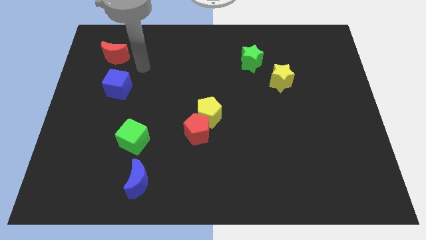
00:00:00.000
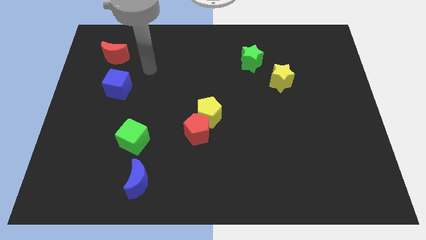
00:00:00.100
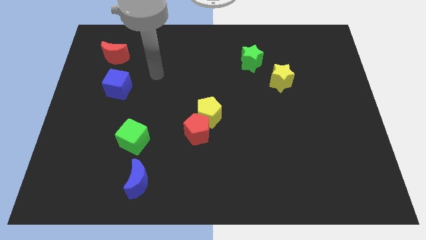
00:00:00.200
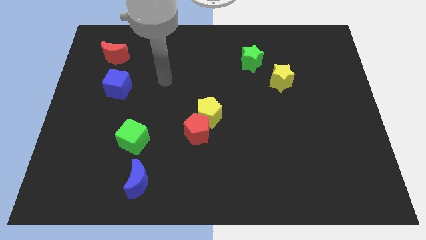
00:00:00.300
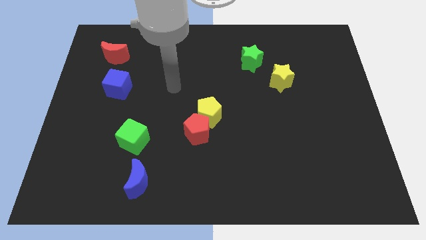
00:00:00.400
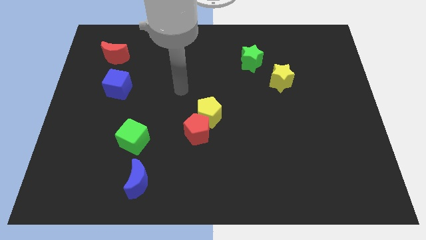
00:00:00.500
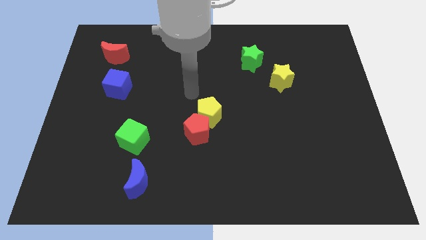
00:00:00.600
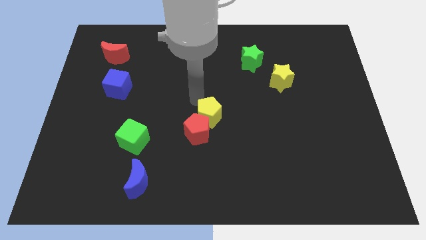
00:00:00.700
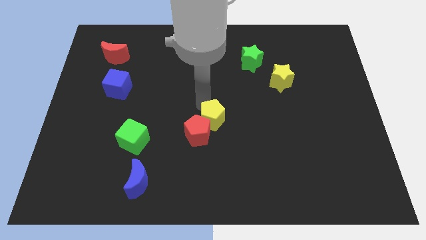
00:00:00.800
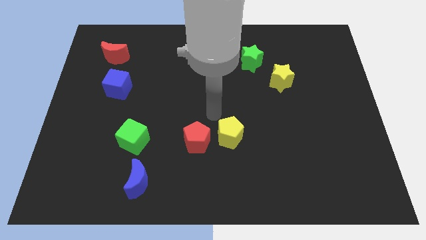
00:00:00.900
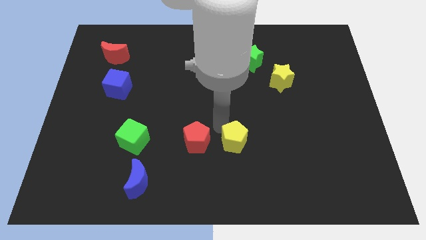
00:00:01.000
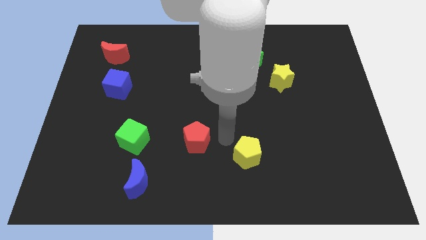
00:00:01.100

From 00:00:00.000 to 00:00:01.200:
pull the red pentagon apart from the yellow pentagon

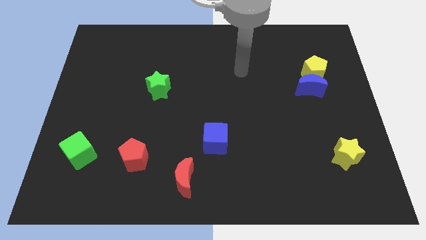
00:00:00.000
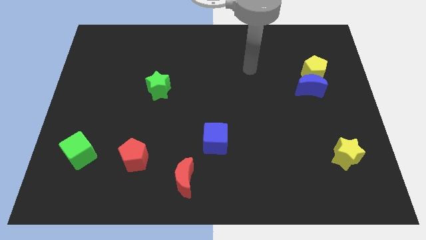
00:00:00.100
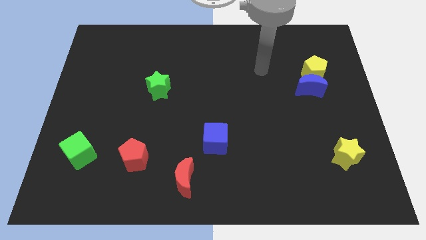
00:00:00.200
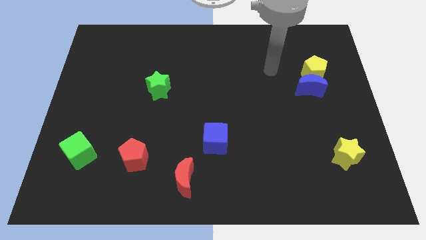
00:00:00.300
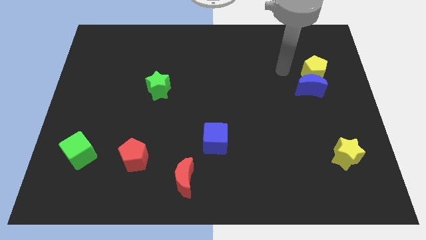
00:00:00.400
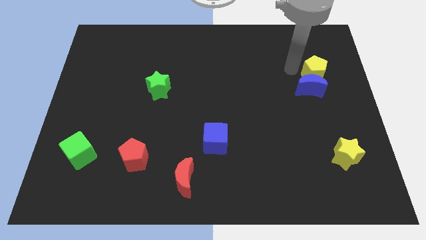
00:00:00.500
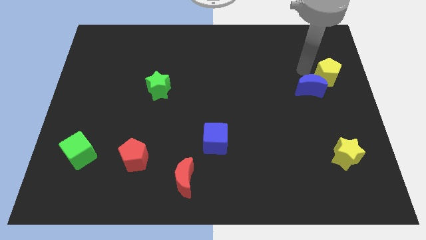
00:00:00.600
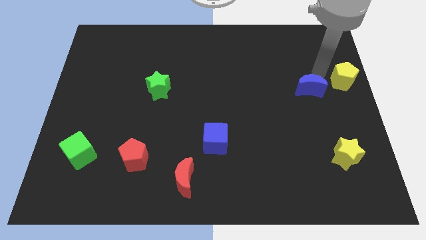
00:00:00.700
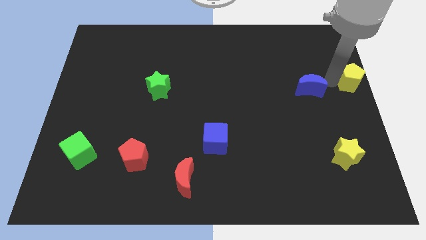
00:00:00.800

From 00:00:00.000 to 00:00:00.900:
pull the blue moon apart from the yellow pentagon

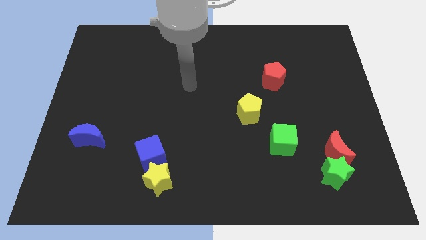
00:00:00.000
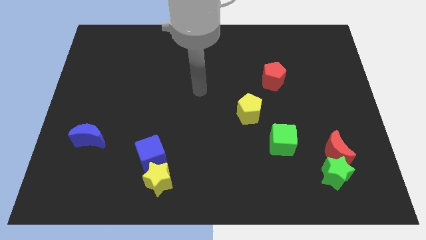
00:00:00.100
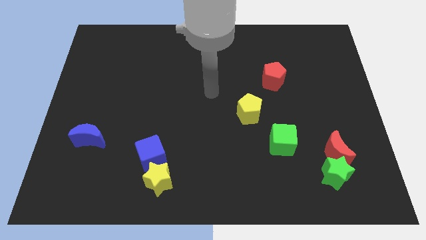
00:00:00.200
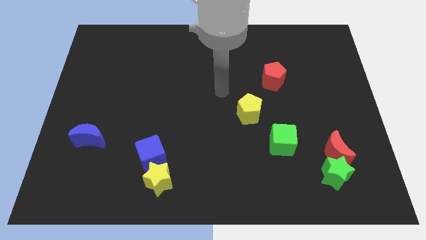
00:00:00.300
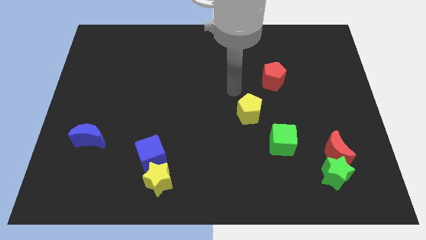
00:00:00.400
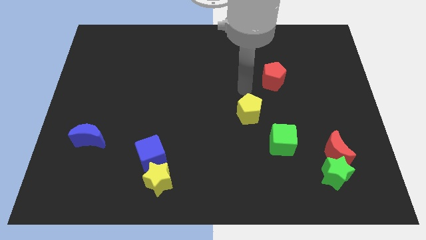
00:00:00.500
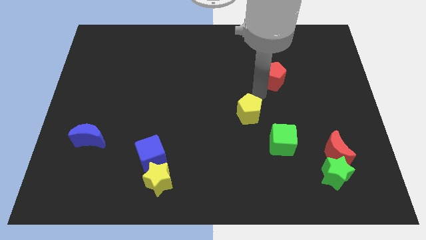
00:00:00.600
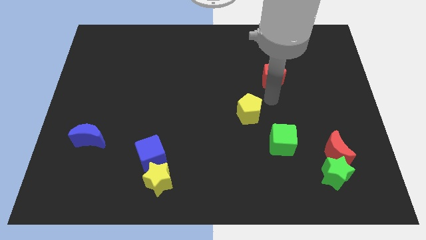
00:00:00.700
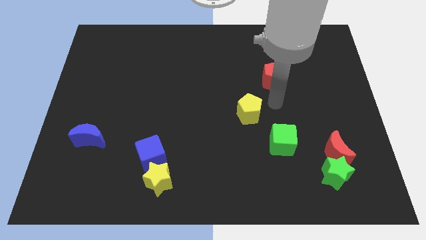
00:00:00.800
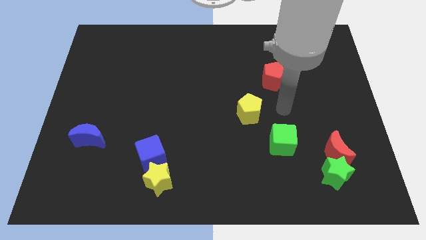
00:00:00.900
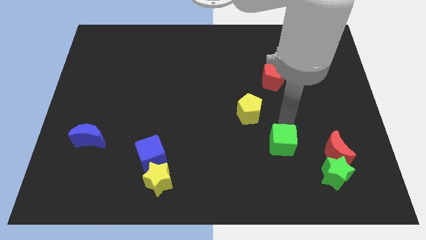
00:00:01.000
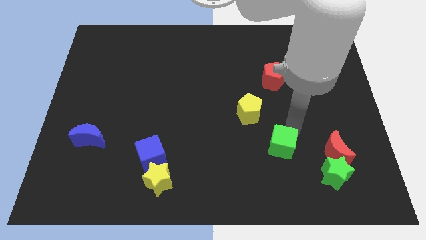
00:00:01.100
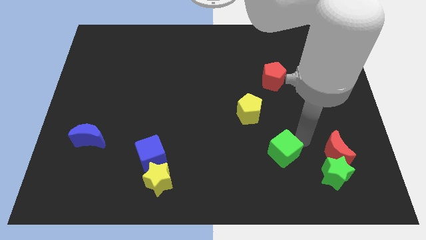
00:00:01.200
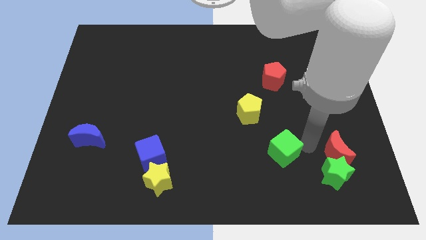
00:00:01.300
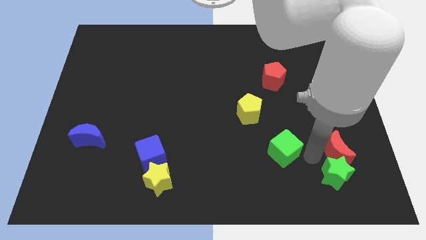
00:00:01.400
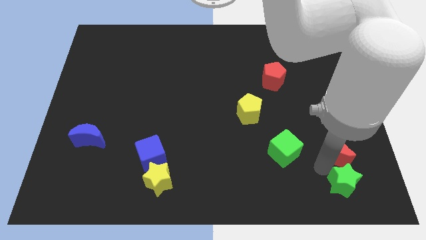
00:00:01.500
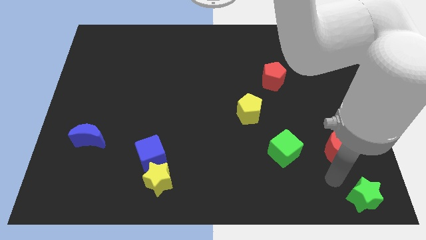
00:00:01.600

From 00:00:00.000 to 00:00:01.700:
move the red moon away from the green star

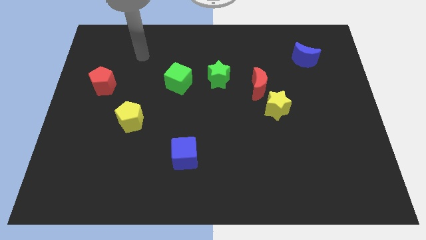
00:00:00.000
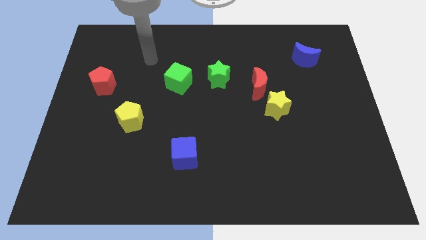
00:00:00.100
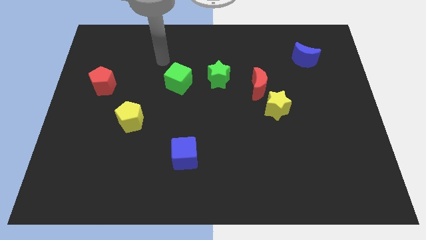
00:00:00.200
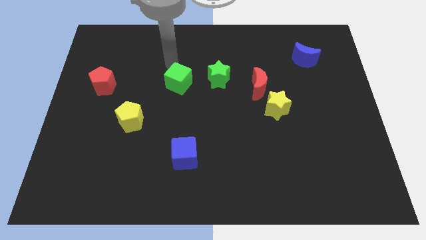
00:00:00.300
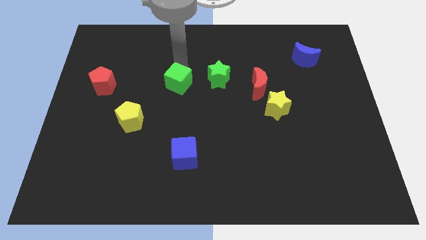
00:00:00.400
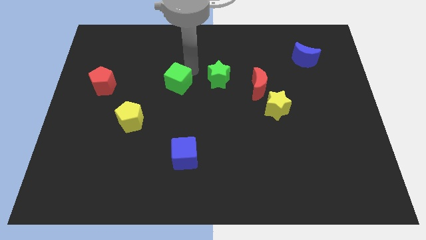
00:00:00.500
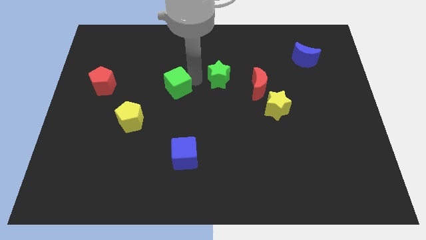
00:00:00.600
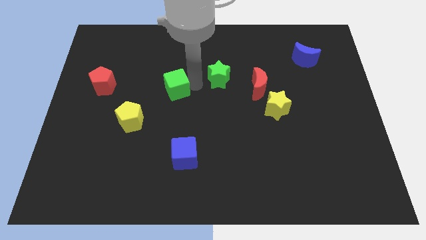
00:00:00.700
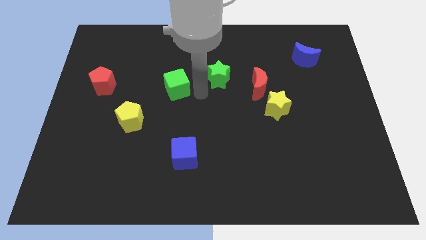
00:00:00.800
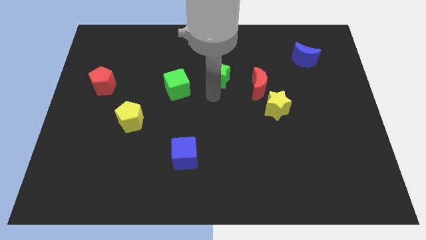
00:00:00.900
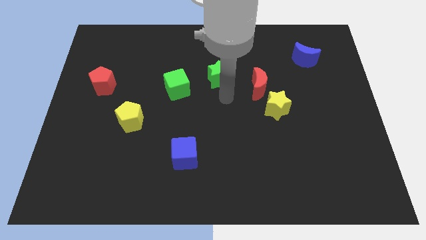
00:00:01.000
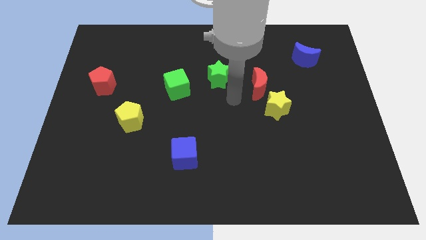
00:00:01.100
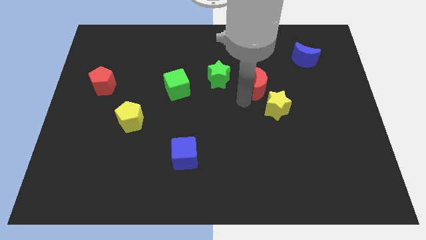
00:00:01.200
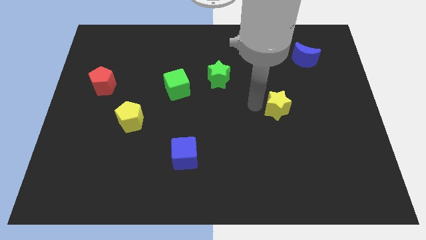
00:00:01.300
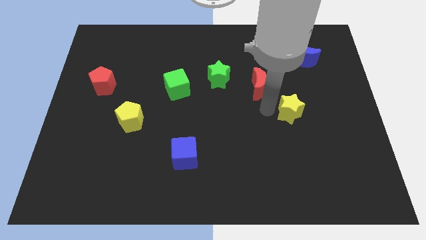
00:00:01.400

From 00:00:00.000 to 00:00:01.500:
separate the red moon from the yellow star

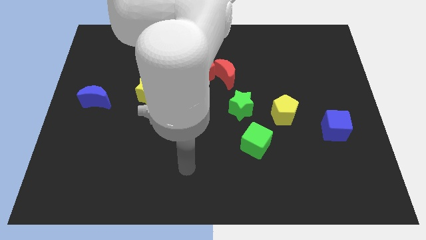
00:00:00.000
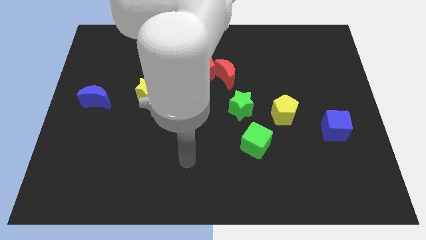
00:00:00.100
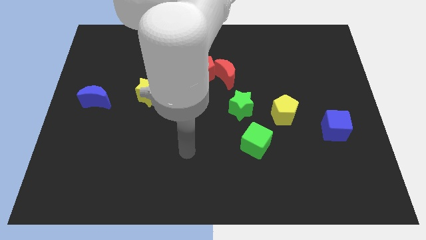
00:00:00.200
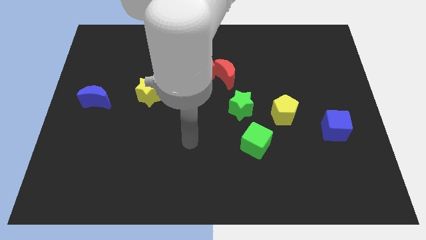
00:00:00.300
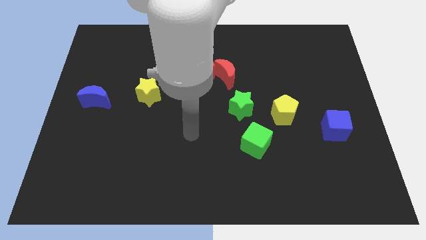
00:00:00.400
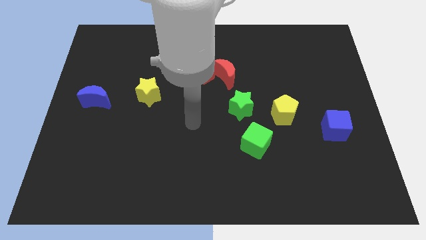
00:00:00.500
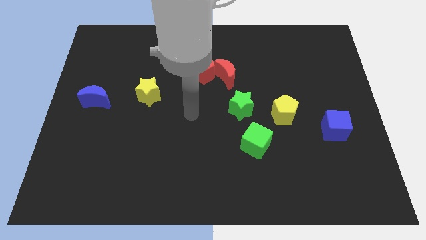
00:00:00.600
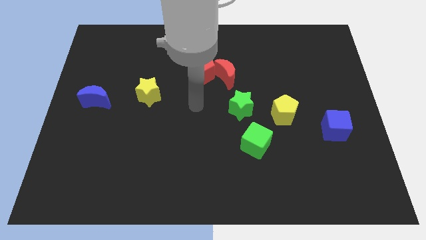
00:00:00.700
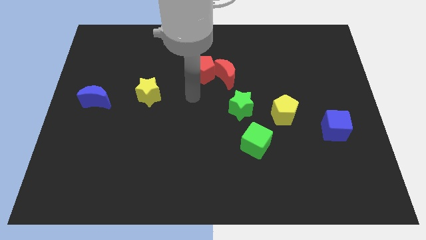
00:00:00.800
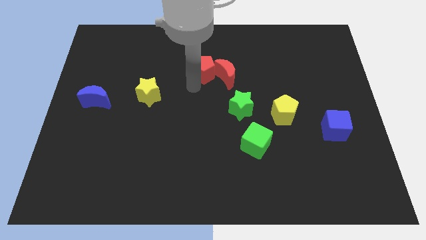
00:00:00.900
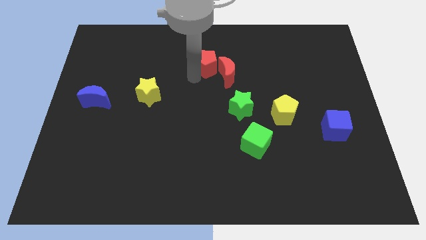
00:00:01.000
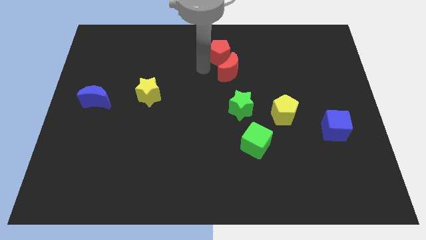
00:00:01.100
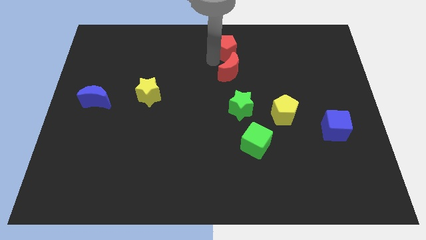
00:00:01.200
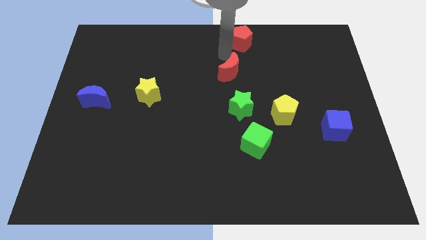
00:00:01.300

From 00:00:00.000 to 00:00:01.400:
separate the red moon from the red pentagon

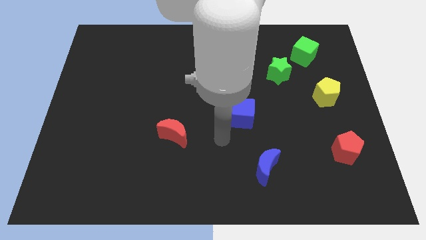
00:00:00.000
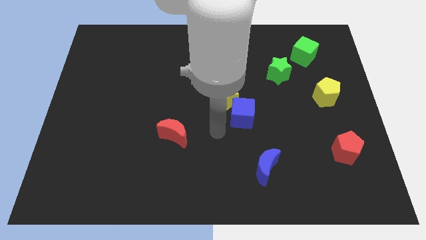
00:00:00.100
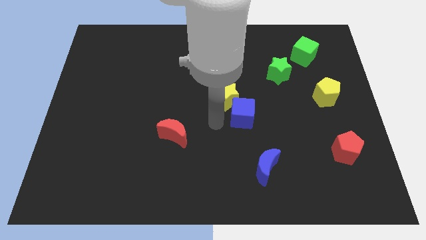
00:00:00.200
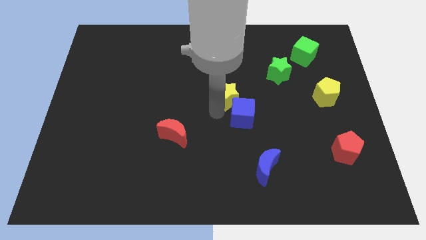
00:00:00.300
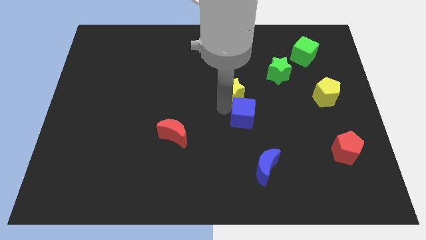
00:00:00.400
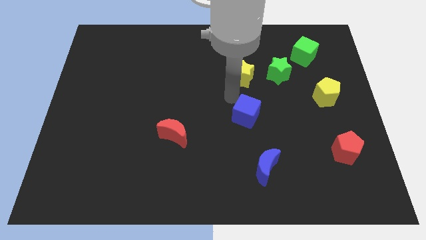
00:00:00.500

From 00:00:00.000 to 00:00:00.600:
separate the blue cube from the yellow star

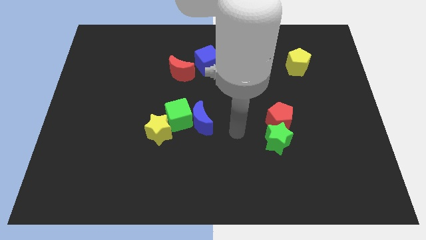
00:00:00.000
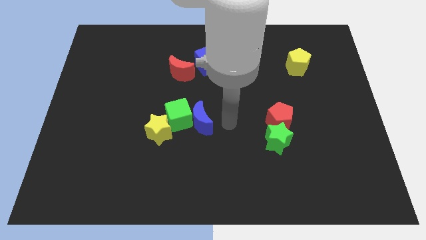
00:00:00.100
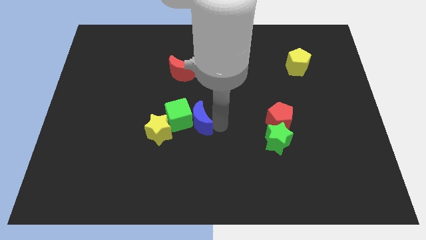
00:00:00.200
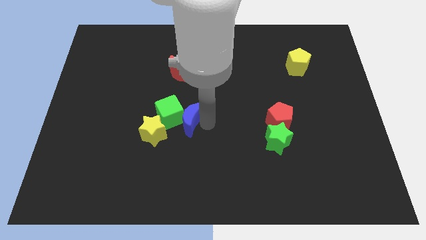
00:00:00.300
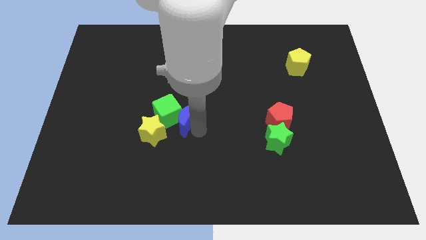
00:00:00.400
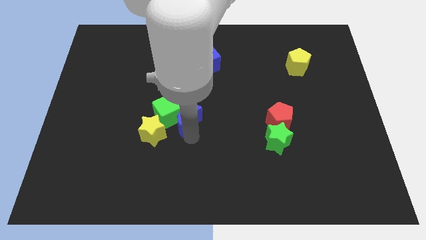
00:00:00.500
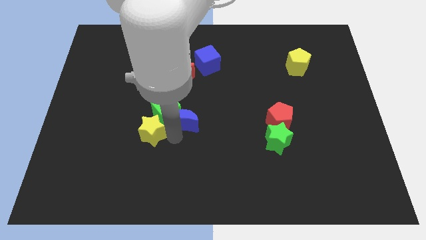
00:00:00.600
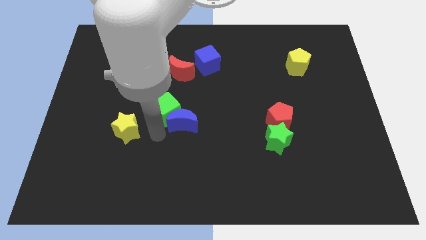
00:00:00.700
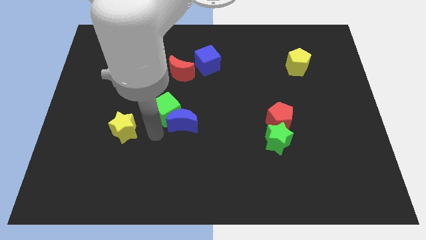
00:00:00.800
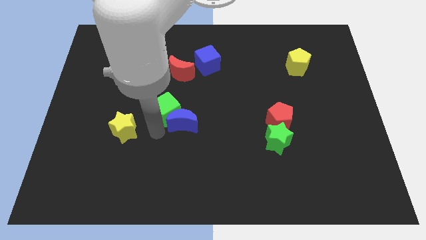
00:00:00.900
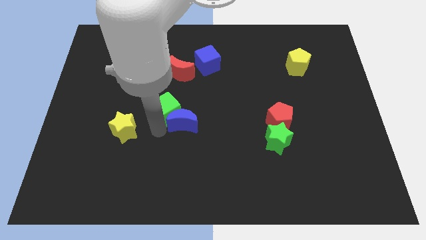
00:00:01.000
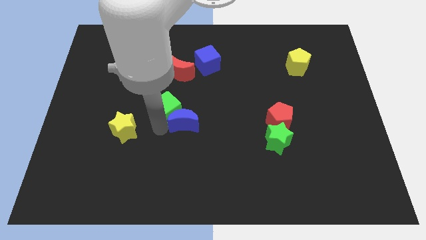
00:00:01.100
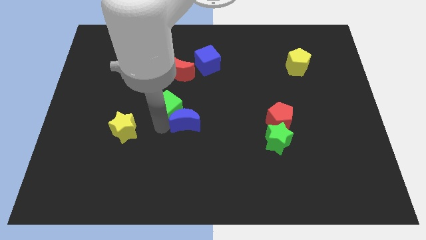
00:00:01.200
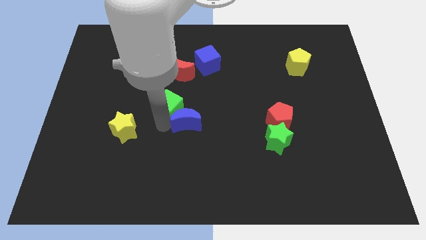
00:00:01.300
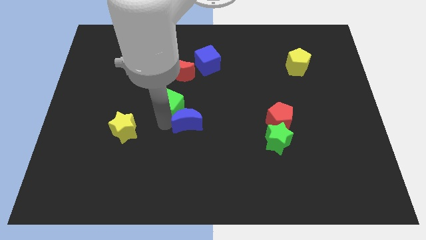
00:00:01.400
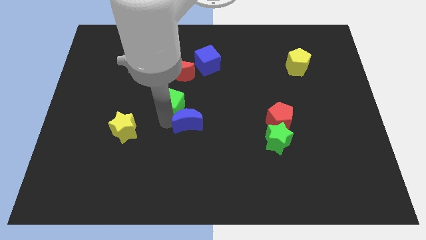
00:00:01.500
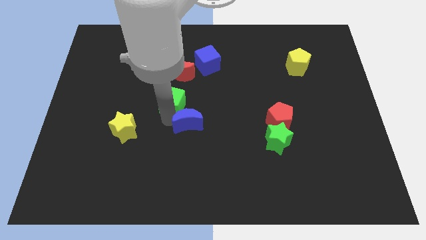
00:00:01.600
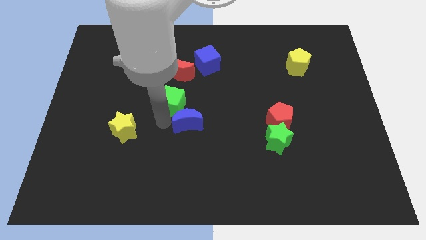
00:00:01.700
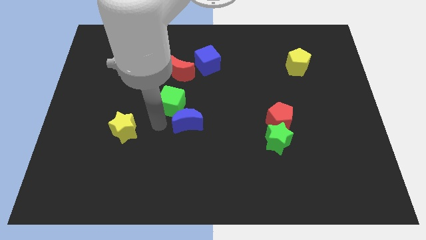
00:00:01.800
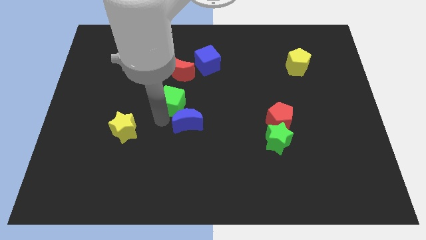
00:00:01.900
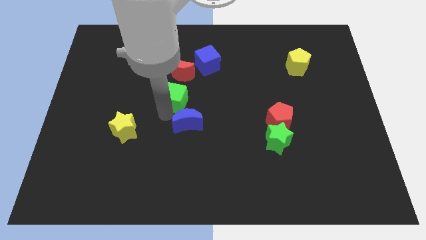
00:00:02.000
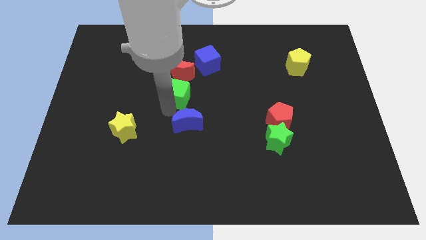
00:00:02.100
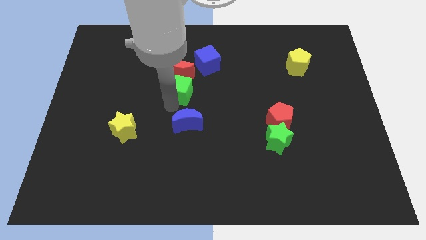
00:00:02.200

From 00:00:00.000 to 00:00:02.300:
move the green cube away from the blue moon and yellow star
